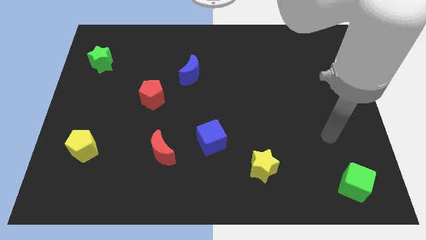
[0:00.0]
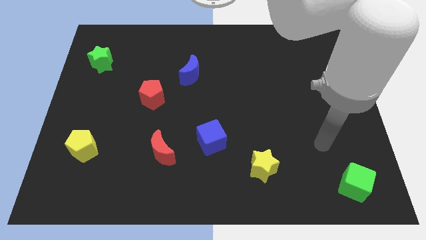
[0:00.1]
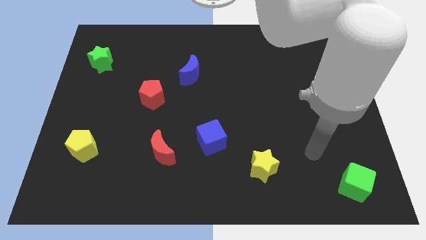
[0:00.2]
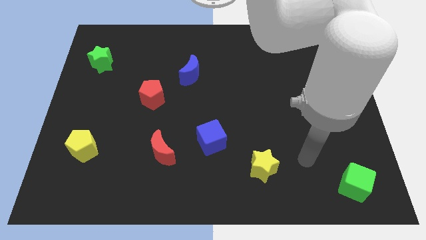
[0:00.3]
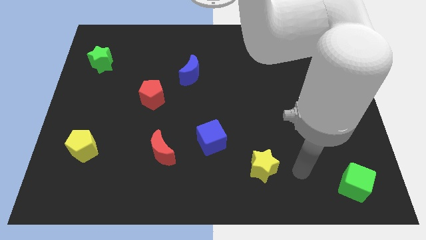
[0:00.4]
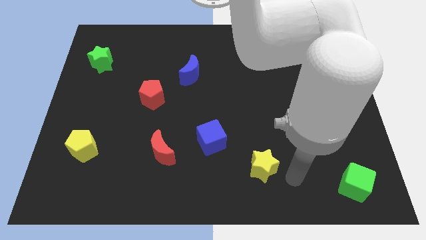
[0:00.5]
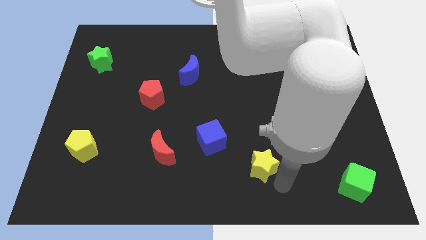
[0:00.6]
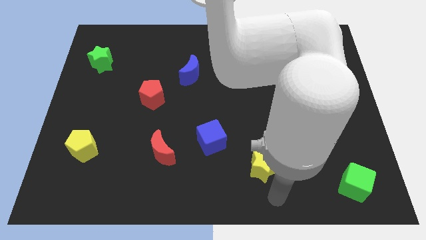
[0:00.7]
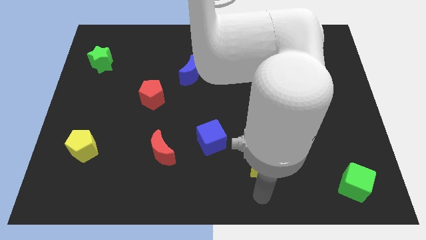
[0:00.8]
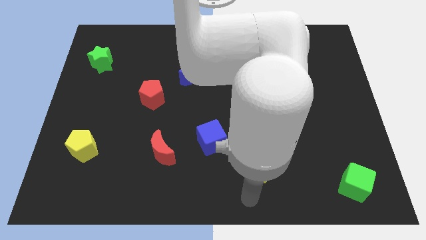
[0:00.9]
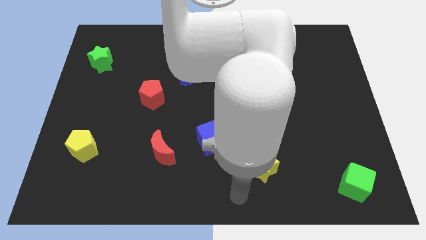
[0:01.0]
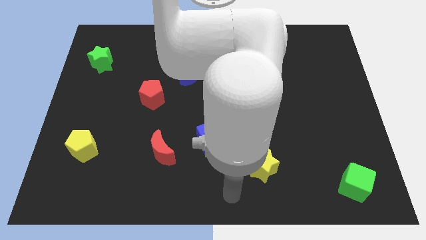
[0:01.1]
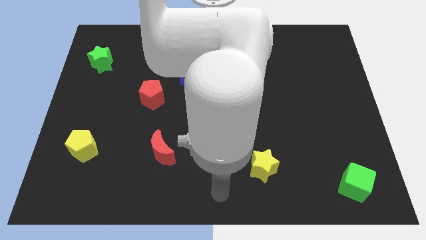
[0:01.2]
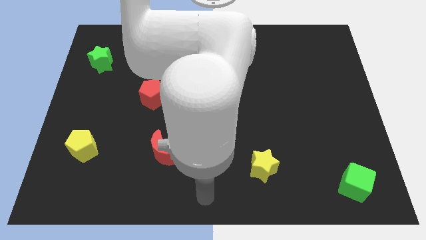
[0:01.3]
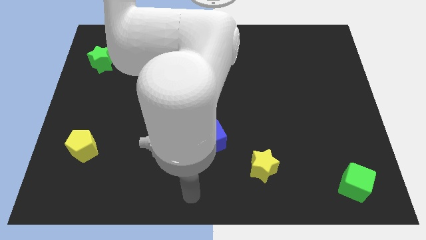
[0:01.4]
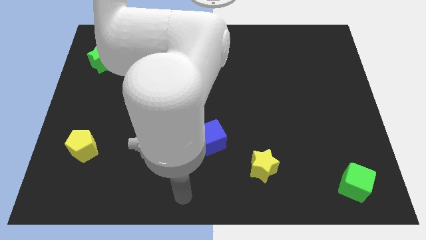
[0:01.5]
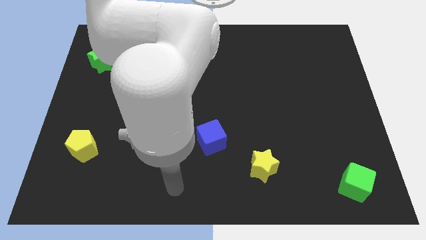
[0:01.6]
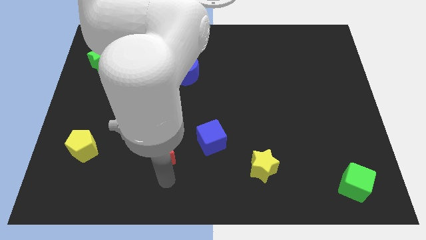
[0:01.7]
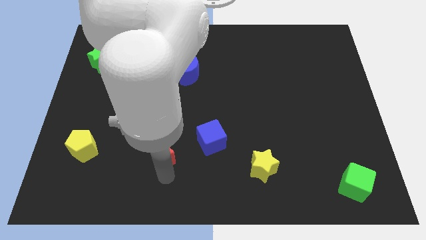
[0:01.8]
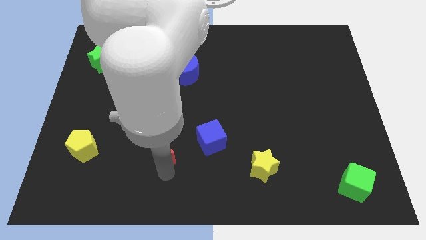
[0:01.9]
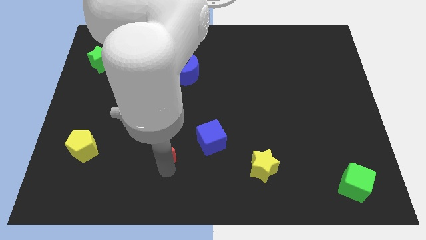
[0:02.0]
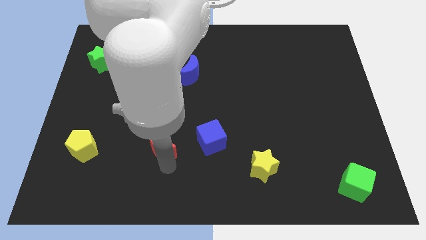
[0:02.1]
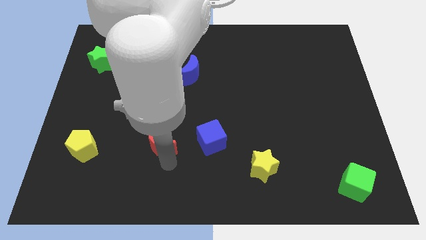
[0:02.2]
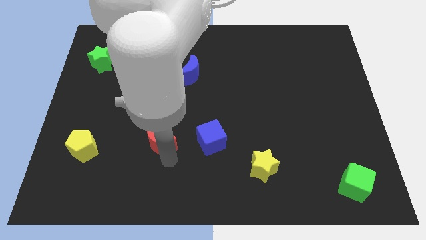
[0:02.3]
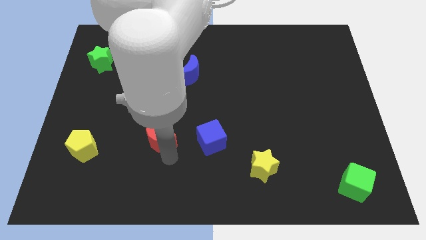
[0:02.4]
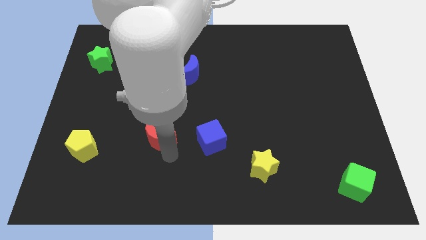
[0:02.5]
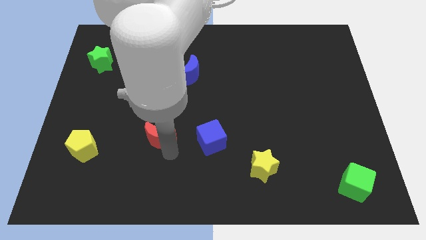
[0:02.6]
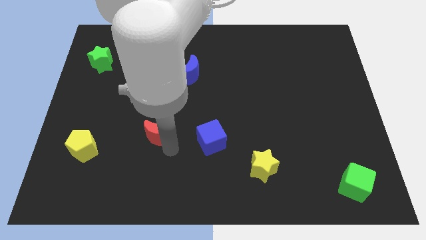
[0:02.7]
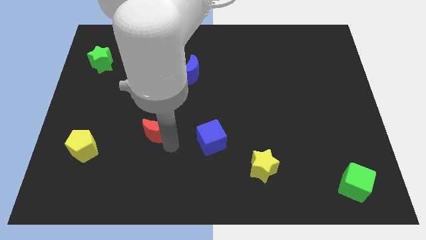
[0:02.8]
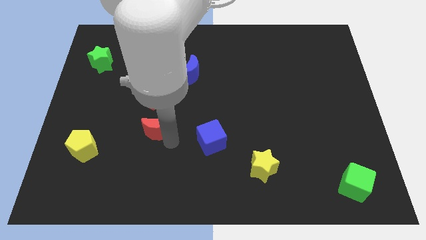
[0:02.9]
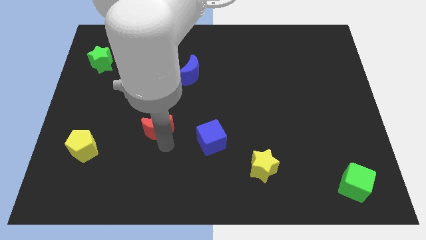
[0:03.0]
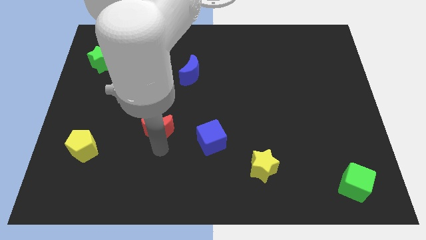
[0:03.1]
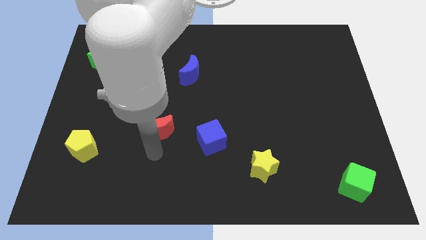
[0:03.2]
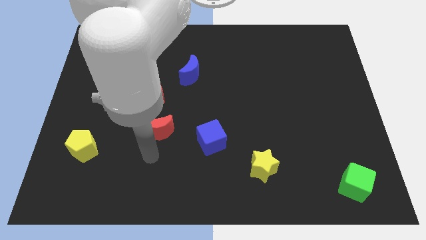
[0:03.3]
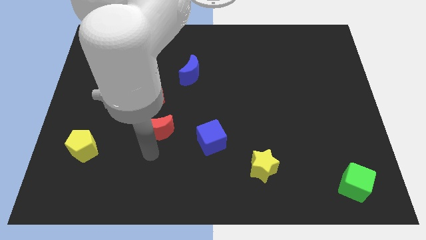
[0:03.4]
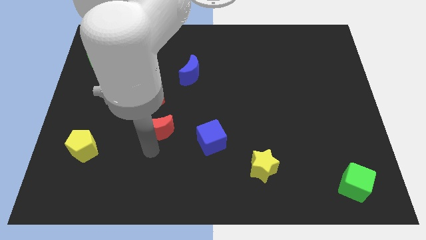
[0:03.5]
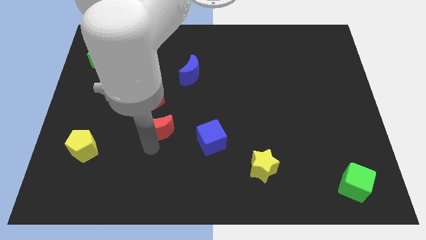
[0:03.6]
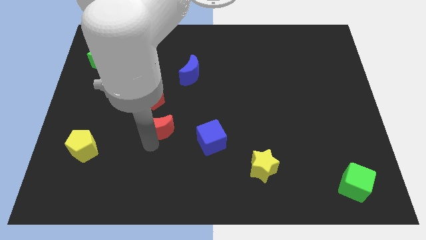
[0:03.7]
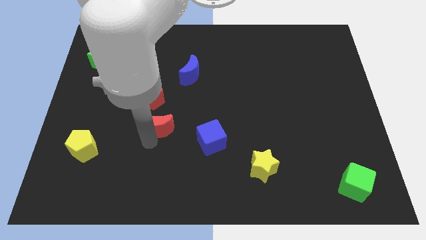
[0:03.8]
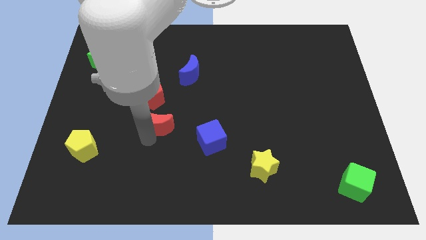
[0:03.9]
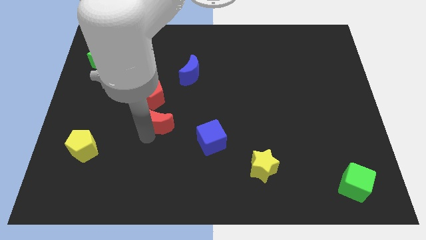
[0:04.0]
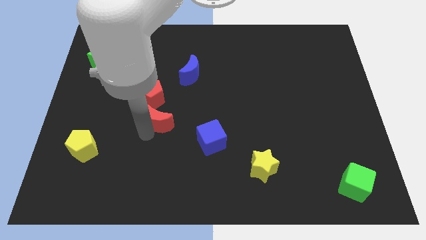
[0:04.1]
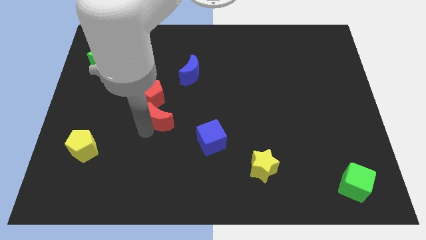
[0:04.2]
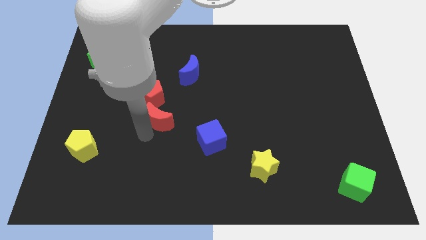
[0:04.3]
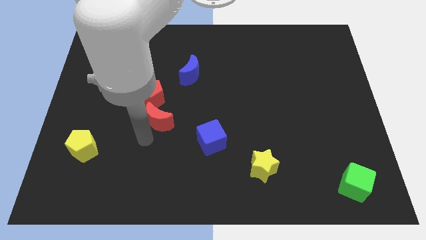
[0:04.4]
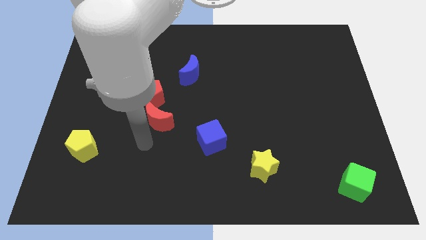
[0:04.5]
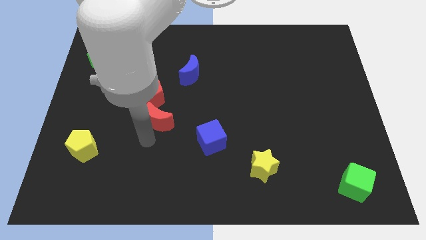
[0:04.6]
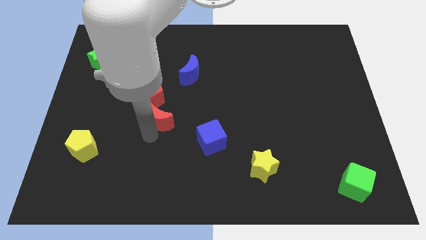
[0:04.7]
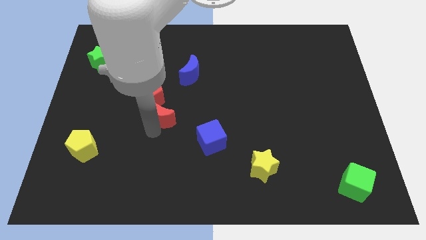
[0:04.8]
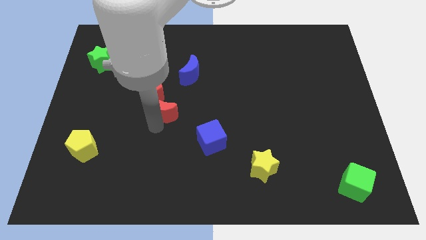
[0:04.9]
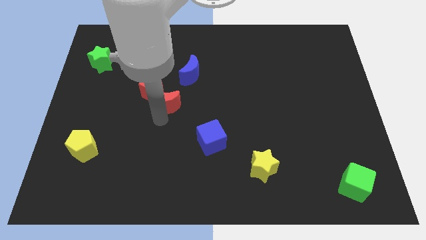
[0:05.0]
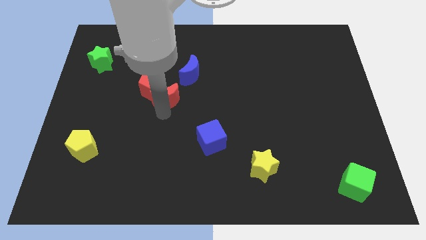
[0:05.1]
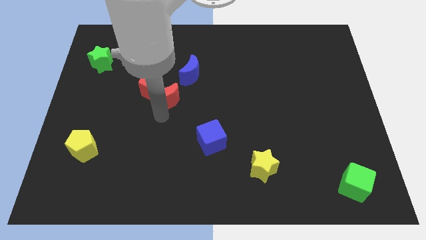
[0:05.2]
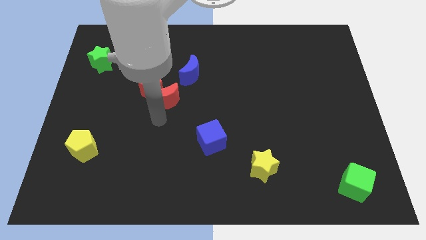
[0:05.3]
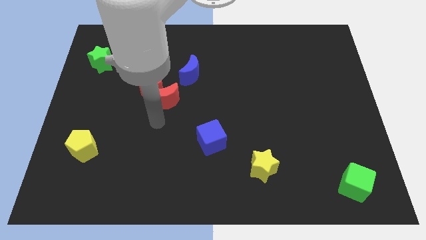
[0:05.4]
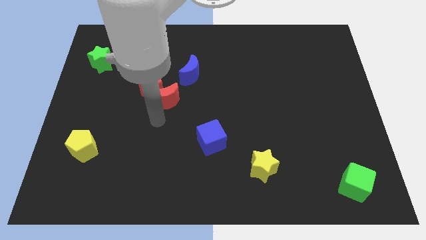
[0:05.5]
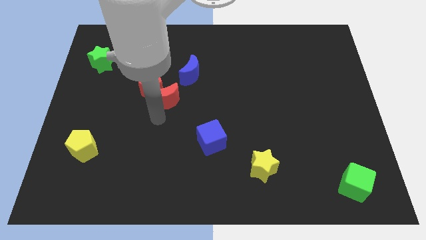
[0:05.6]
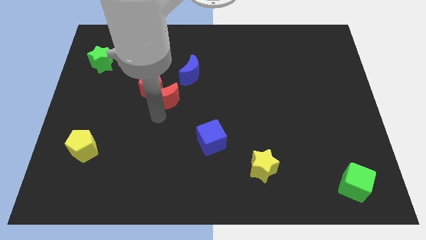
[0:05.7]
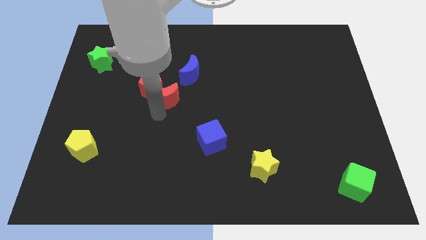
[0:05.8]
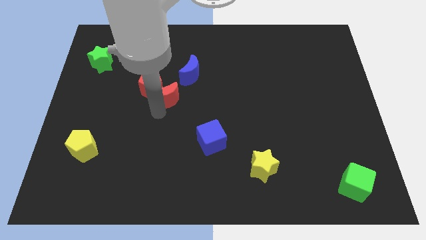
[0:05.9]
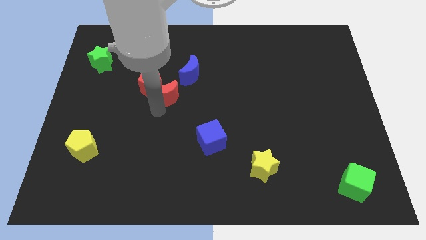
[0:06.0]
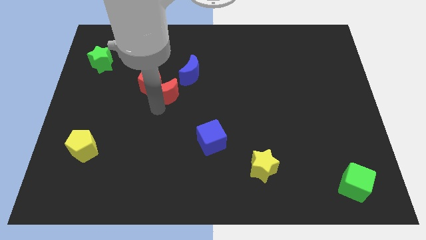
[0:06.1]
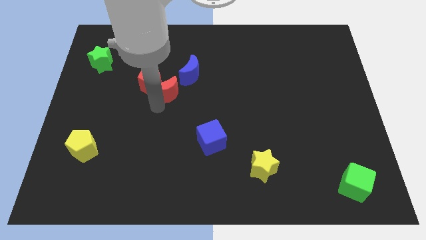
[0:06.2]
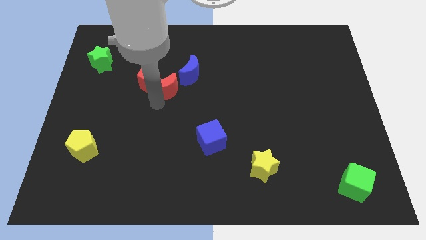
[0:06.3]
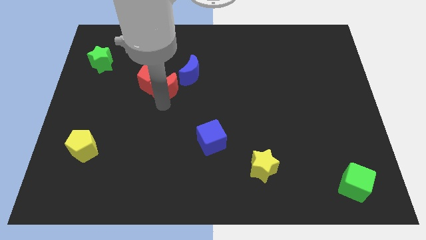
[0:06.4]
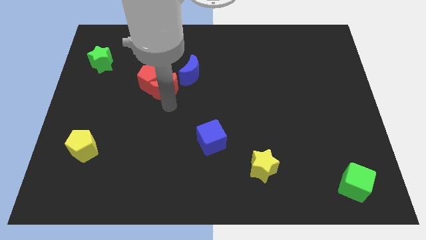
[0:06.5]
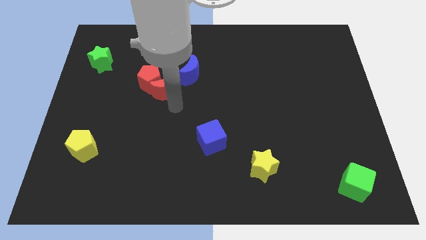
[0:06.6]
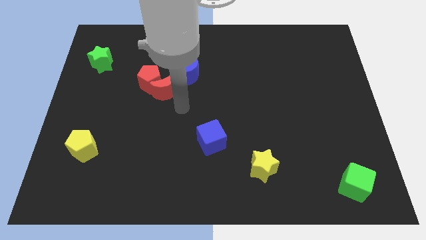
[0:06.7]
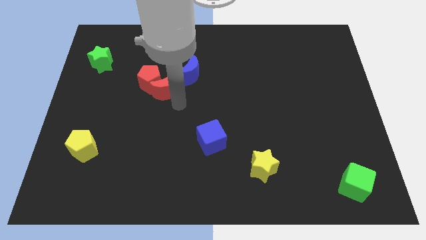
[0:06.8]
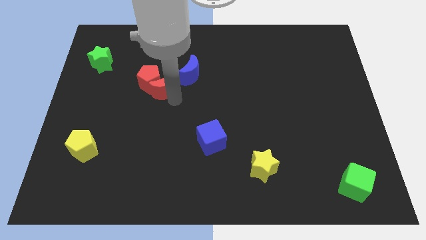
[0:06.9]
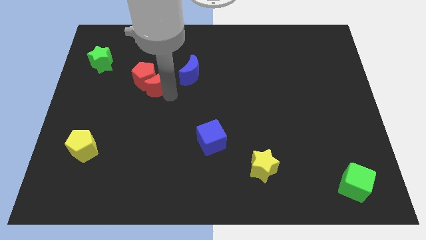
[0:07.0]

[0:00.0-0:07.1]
push the red moon left of the blue moon

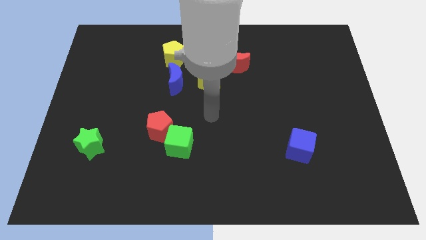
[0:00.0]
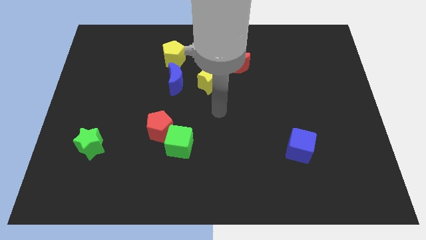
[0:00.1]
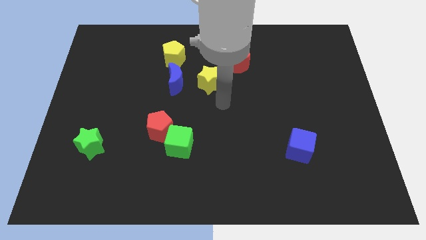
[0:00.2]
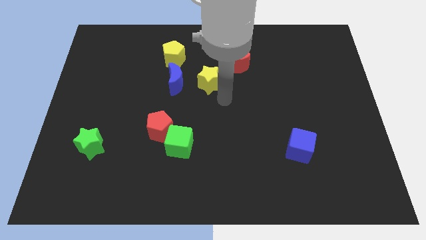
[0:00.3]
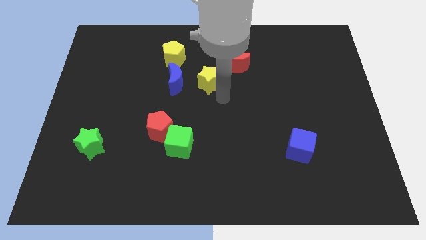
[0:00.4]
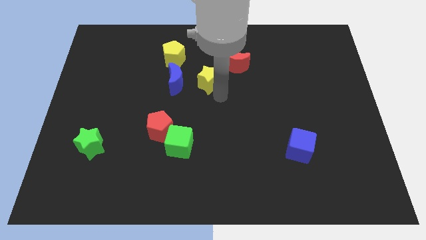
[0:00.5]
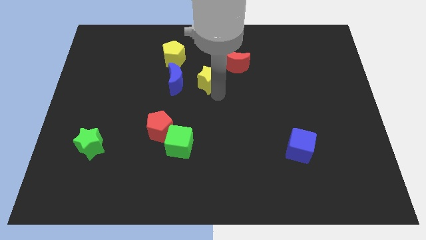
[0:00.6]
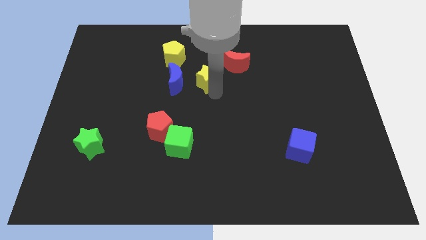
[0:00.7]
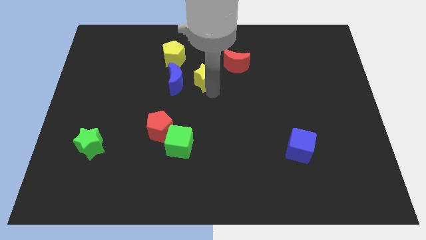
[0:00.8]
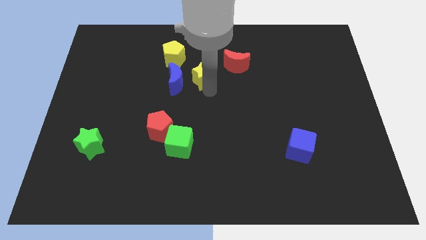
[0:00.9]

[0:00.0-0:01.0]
slide the yellow star just left of the red moon
